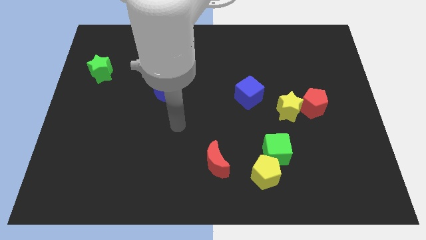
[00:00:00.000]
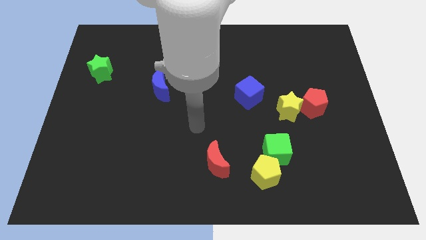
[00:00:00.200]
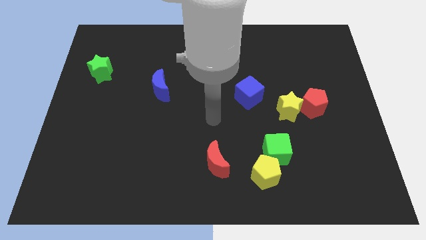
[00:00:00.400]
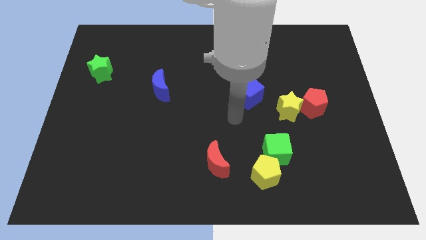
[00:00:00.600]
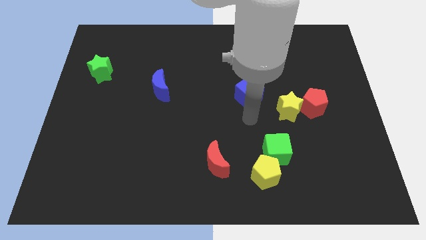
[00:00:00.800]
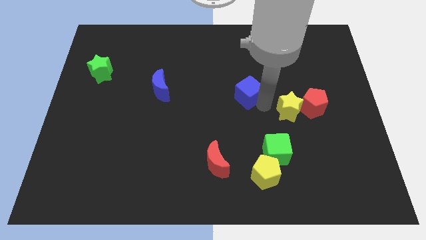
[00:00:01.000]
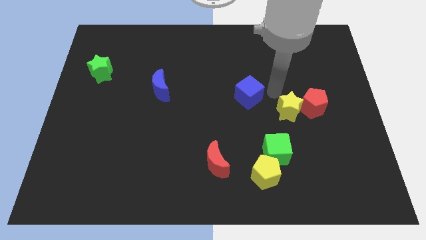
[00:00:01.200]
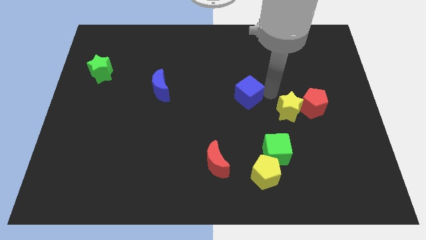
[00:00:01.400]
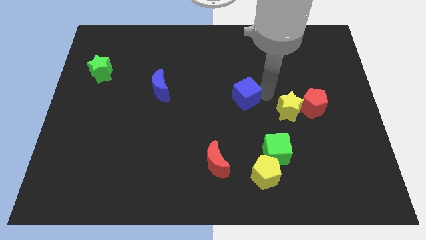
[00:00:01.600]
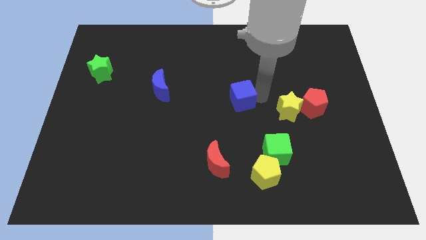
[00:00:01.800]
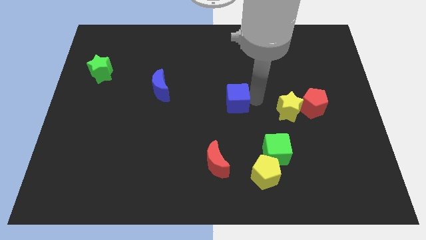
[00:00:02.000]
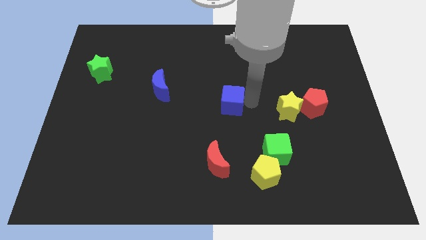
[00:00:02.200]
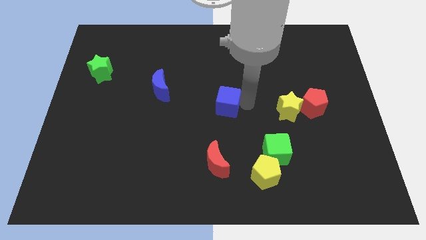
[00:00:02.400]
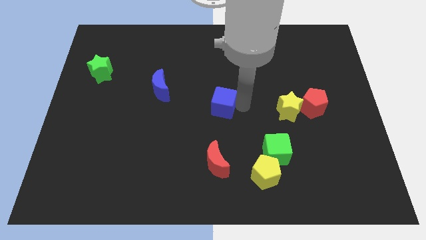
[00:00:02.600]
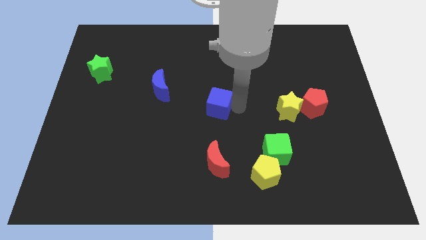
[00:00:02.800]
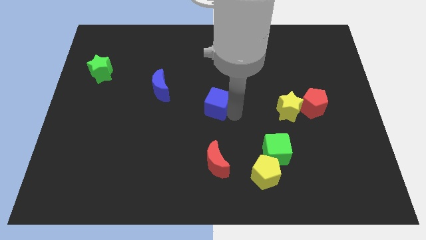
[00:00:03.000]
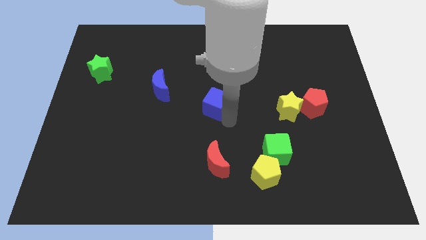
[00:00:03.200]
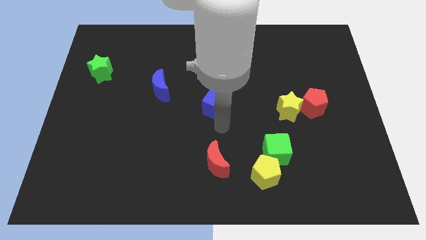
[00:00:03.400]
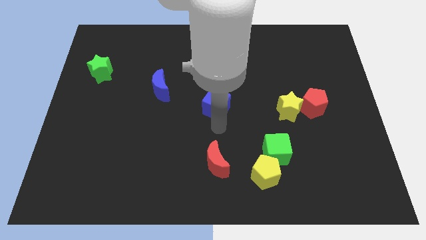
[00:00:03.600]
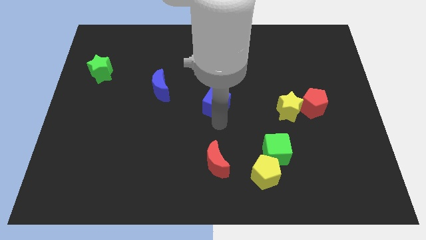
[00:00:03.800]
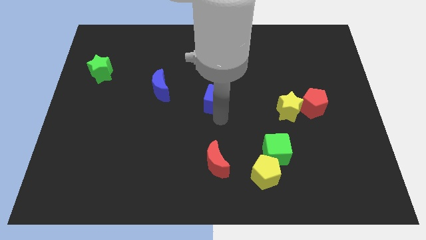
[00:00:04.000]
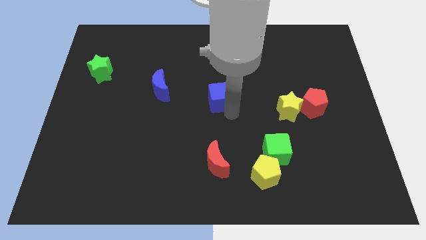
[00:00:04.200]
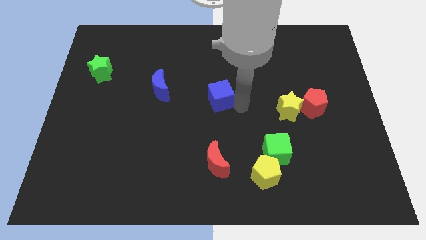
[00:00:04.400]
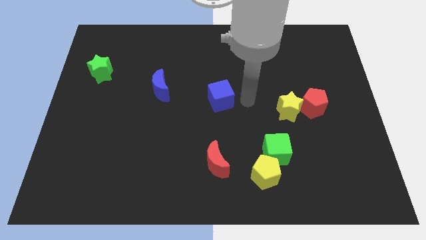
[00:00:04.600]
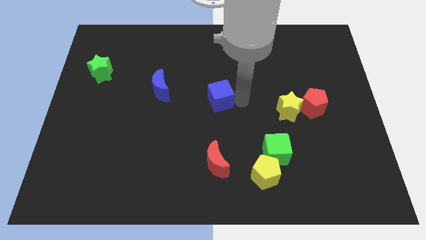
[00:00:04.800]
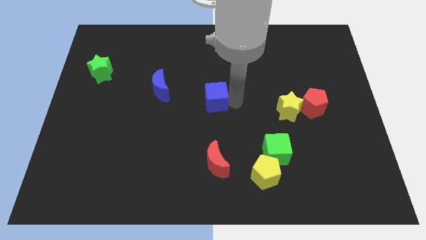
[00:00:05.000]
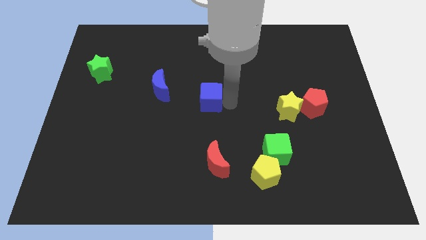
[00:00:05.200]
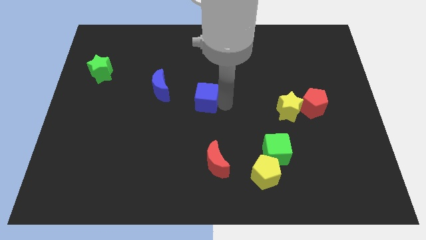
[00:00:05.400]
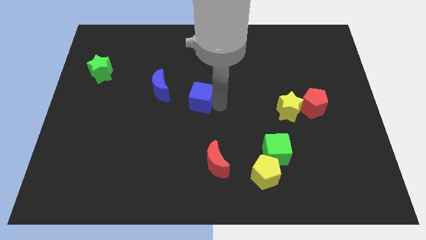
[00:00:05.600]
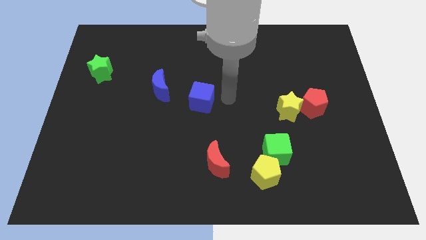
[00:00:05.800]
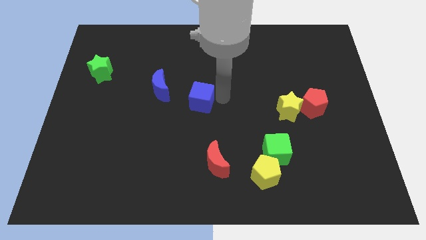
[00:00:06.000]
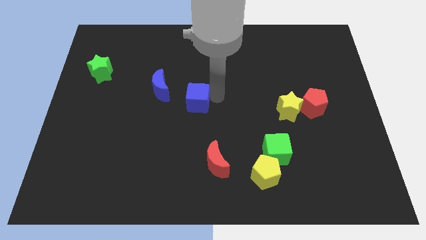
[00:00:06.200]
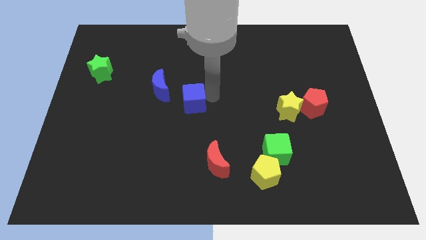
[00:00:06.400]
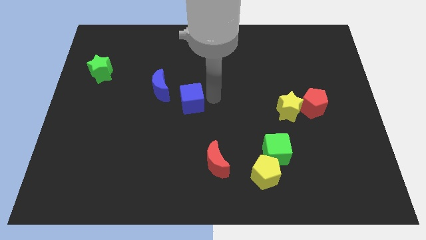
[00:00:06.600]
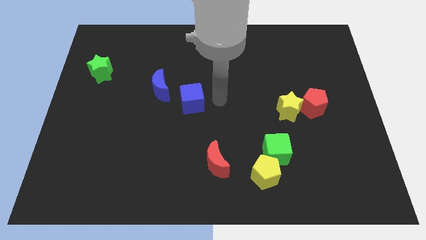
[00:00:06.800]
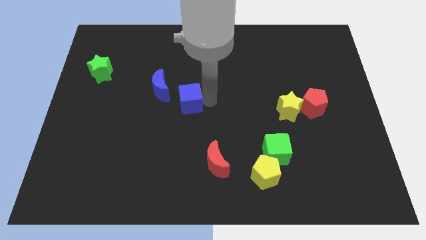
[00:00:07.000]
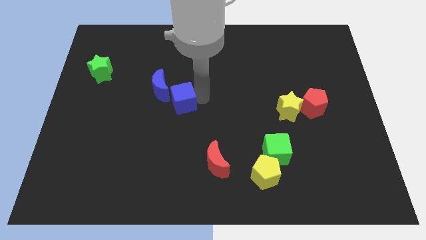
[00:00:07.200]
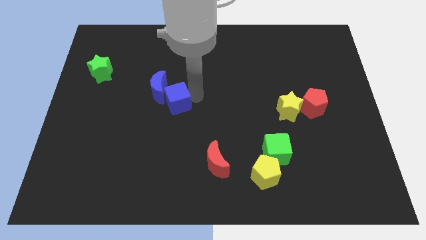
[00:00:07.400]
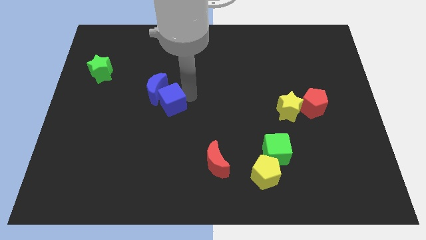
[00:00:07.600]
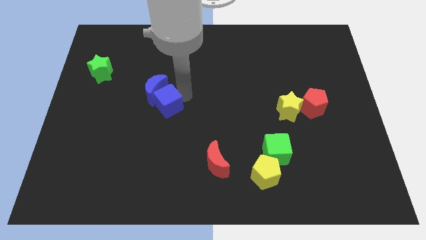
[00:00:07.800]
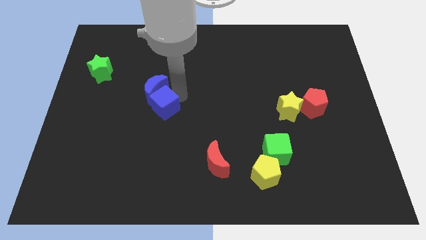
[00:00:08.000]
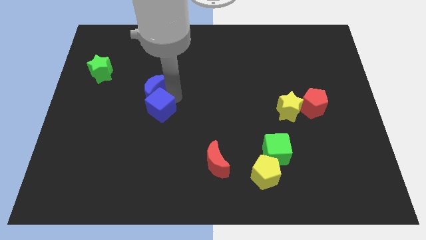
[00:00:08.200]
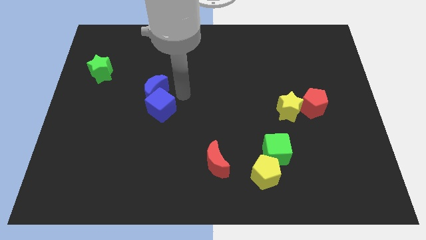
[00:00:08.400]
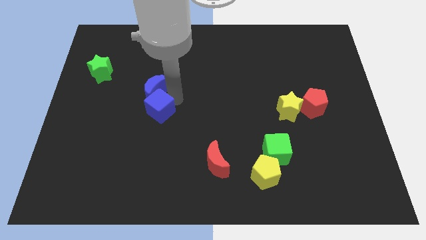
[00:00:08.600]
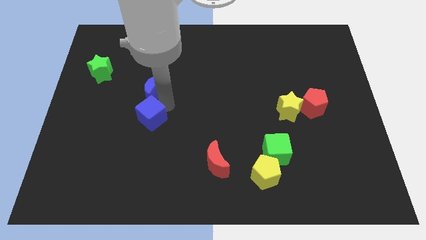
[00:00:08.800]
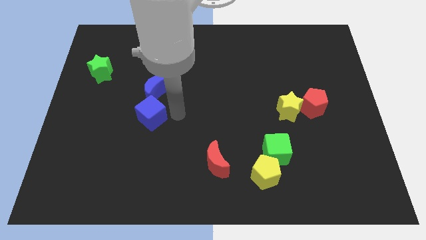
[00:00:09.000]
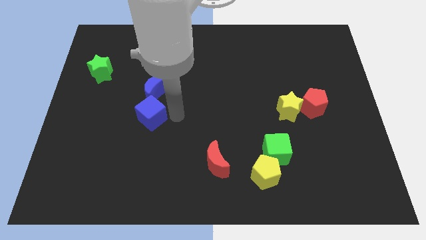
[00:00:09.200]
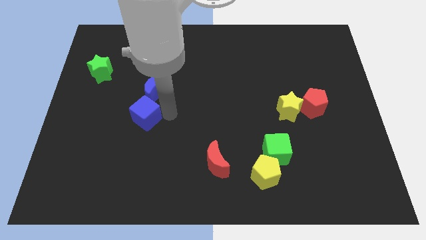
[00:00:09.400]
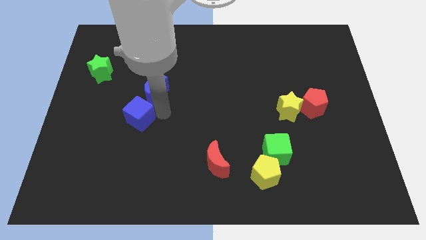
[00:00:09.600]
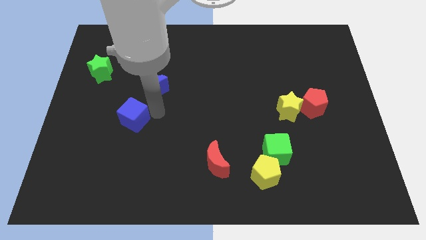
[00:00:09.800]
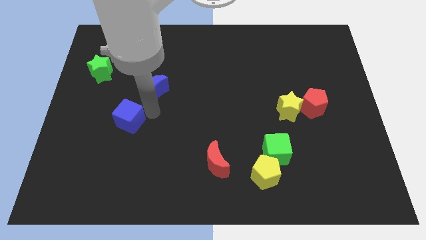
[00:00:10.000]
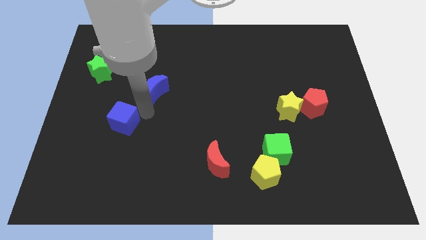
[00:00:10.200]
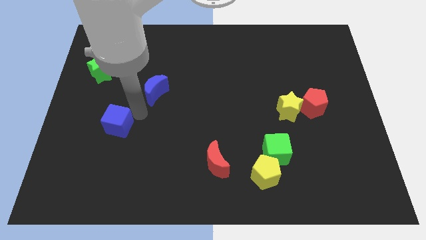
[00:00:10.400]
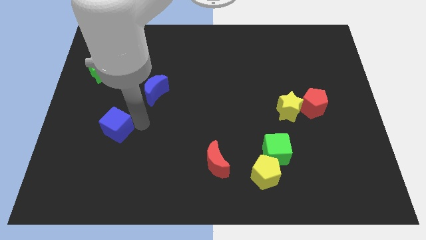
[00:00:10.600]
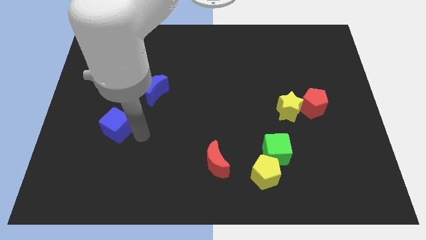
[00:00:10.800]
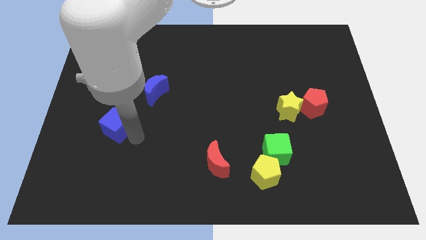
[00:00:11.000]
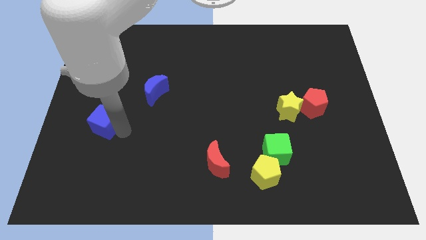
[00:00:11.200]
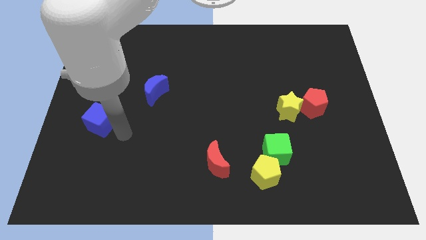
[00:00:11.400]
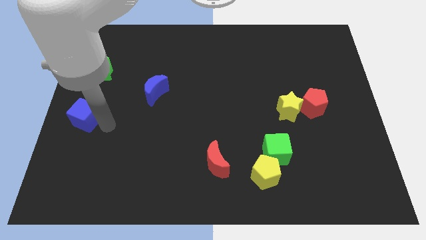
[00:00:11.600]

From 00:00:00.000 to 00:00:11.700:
put the blue cube to the center left
